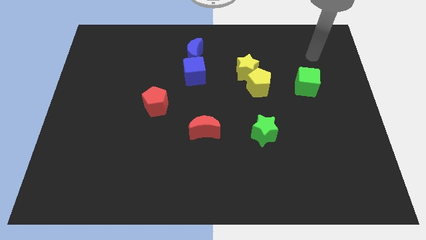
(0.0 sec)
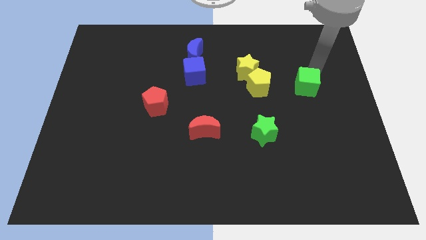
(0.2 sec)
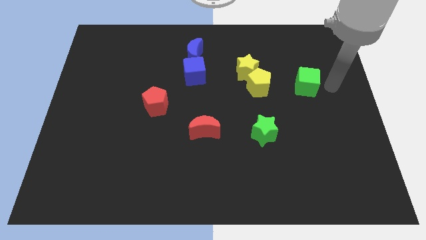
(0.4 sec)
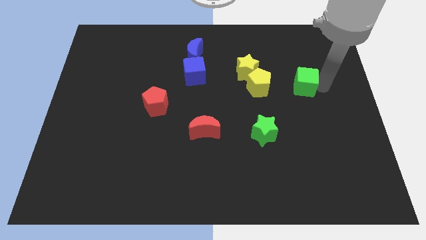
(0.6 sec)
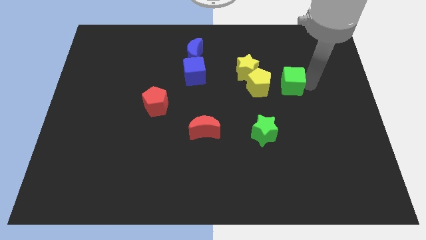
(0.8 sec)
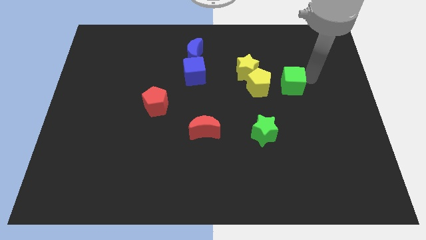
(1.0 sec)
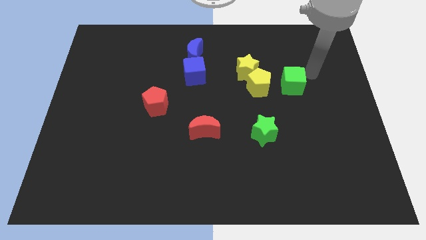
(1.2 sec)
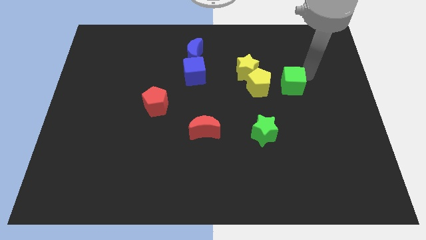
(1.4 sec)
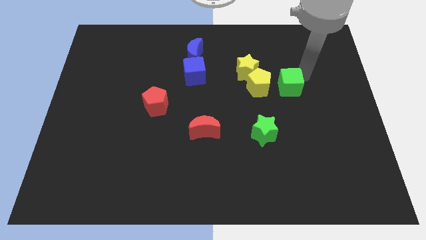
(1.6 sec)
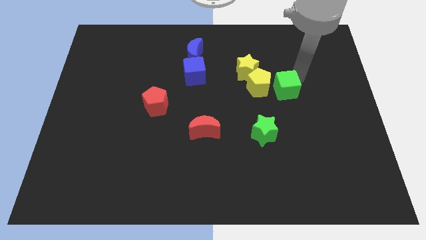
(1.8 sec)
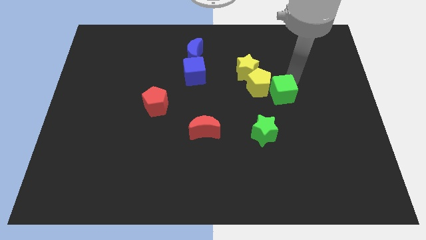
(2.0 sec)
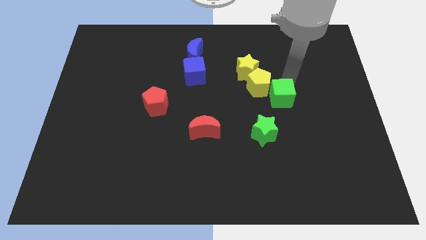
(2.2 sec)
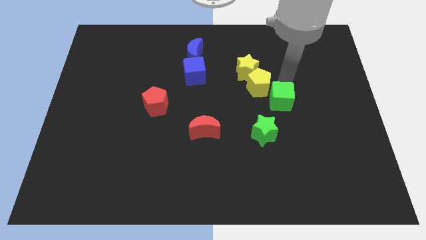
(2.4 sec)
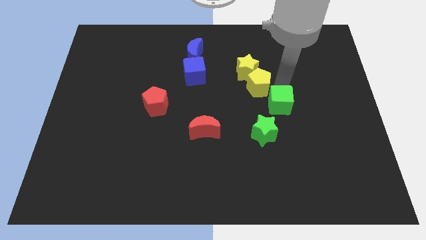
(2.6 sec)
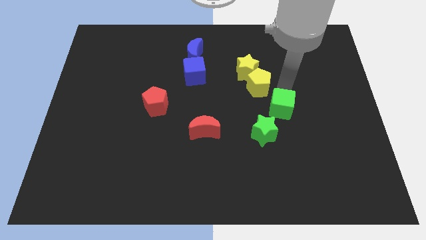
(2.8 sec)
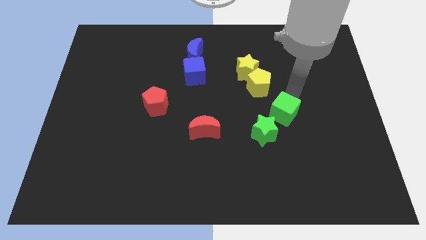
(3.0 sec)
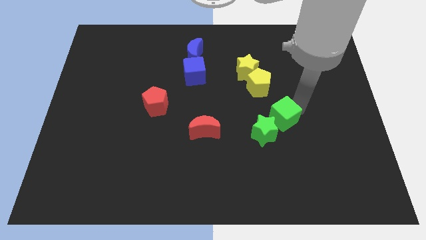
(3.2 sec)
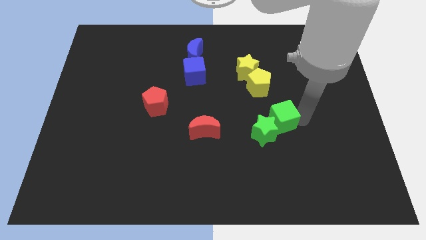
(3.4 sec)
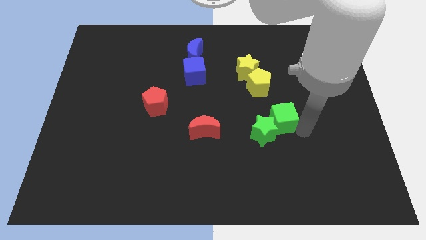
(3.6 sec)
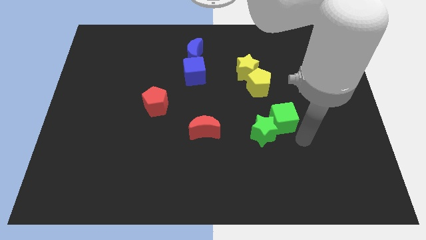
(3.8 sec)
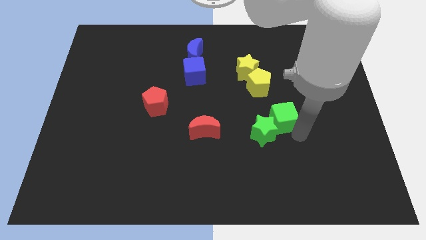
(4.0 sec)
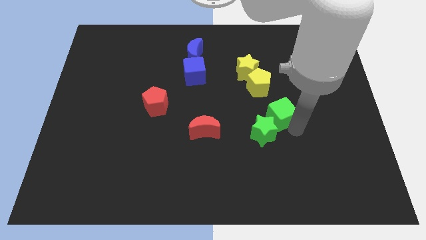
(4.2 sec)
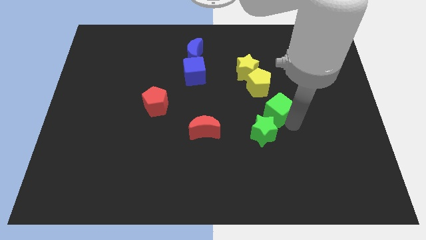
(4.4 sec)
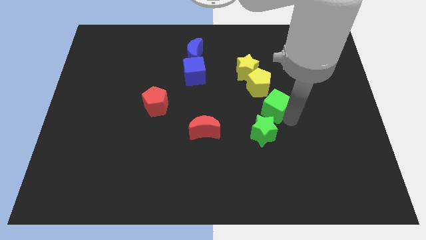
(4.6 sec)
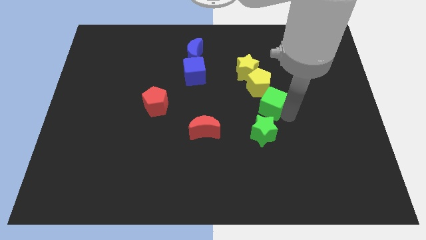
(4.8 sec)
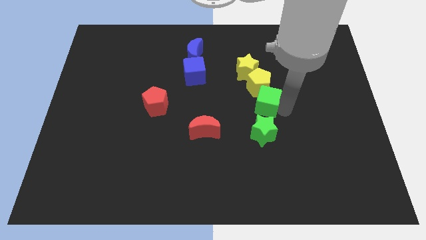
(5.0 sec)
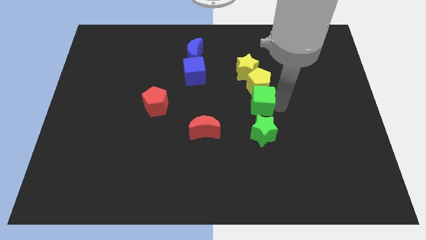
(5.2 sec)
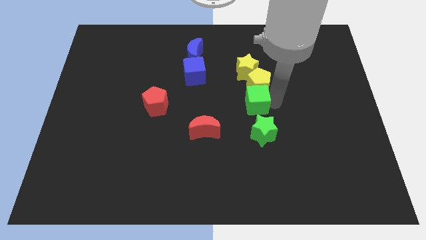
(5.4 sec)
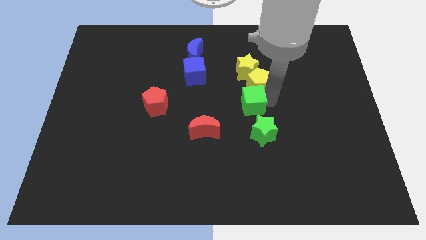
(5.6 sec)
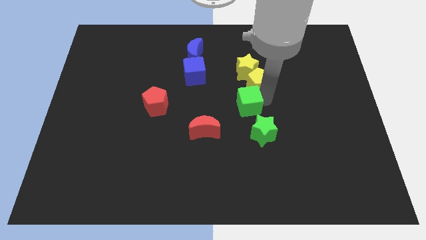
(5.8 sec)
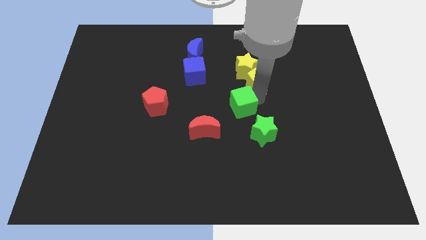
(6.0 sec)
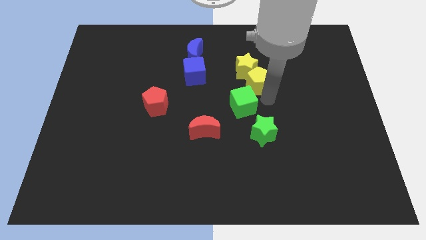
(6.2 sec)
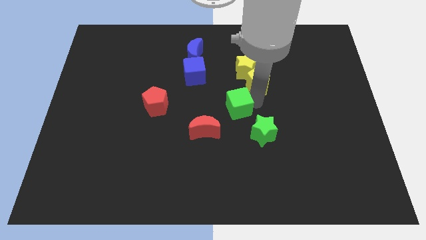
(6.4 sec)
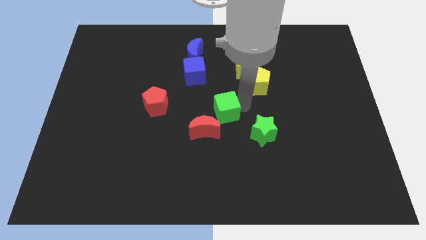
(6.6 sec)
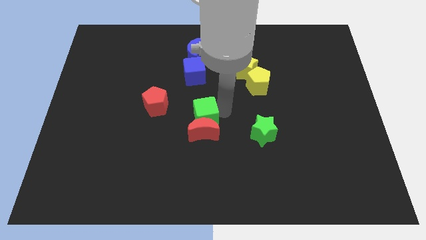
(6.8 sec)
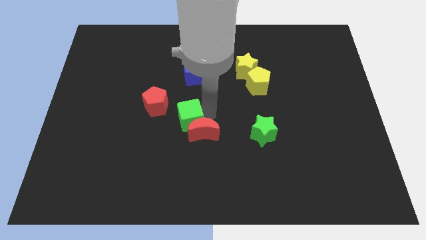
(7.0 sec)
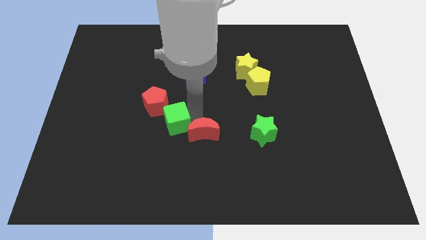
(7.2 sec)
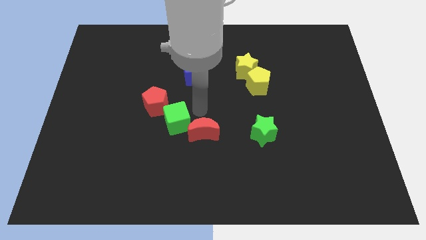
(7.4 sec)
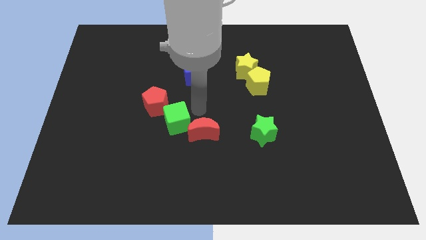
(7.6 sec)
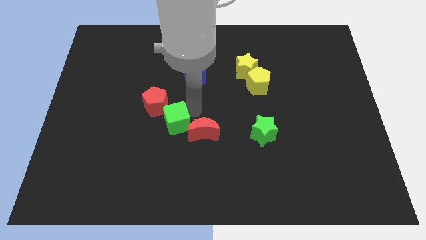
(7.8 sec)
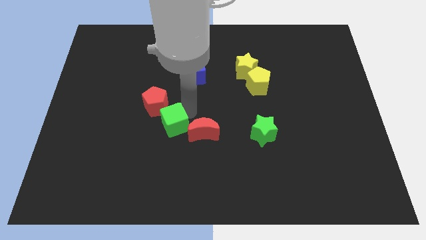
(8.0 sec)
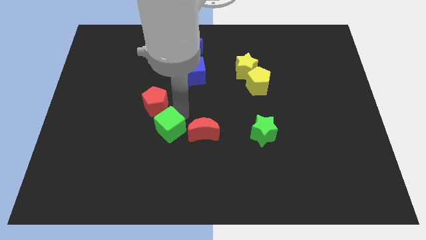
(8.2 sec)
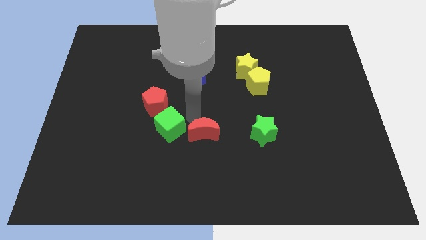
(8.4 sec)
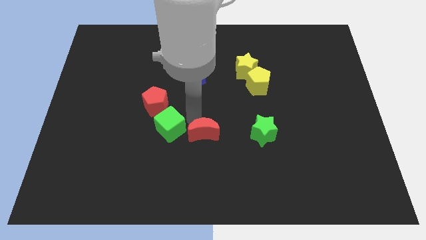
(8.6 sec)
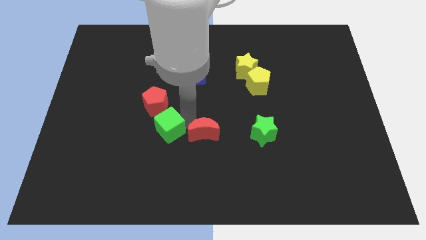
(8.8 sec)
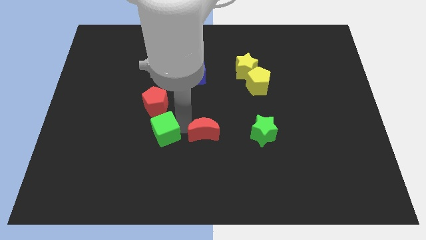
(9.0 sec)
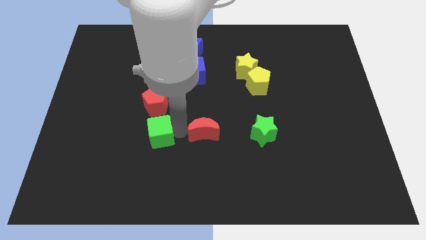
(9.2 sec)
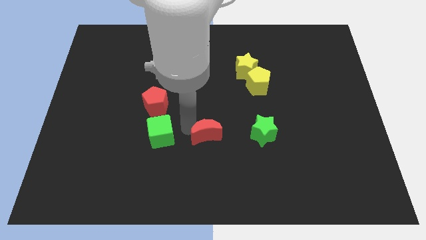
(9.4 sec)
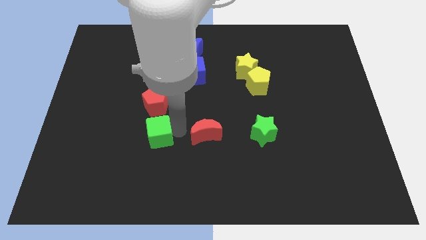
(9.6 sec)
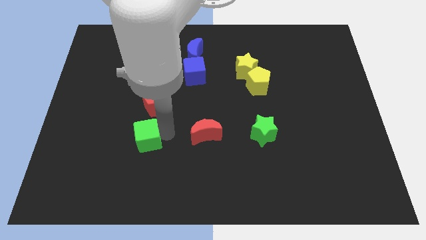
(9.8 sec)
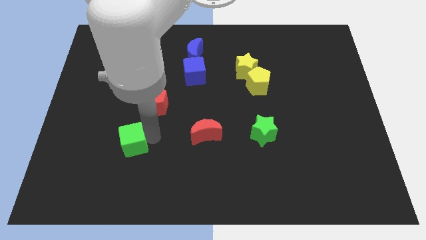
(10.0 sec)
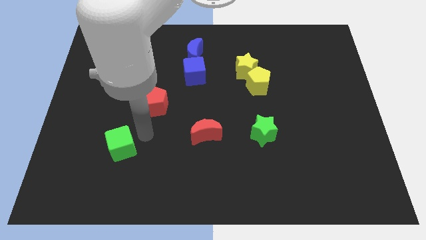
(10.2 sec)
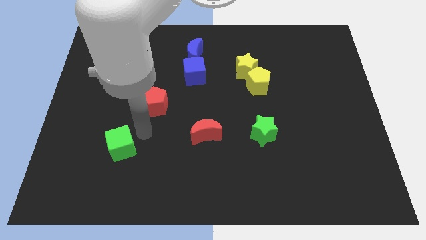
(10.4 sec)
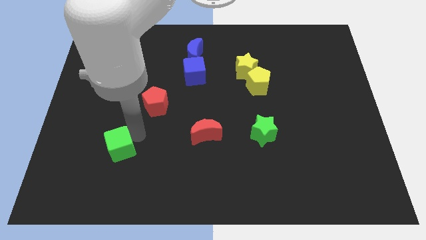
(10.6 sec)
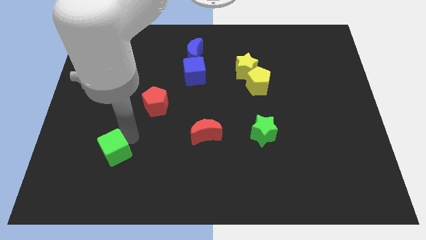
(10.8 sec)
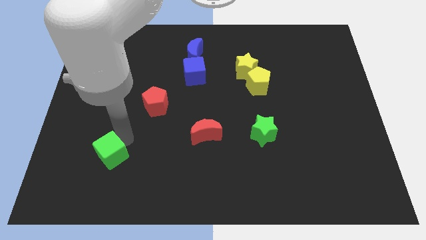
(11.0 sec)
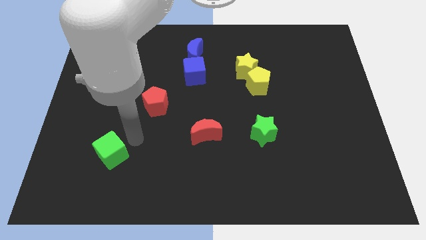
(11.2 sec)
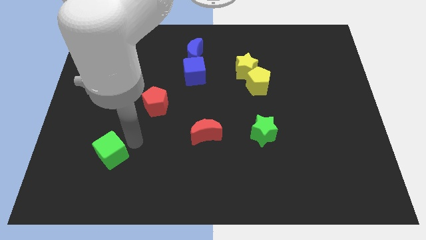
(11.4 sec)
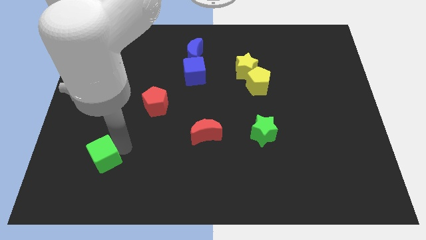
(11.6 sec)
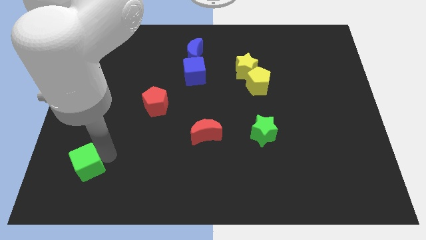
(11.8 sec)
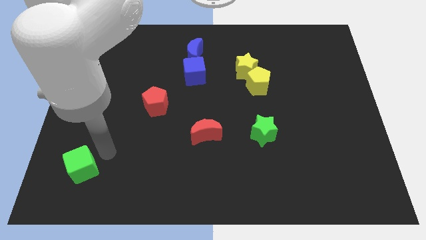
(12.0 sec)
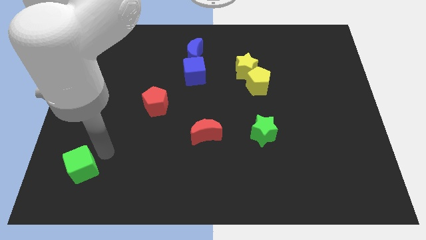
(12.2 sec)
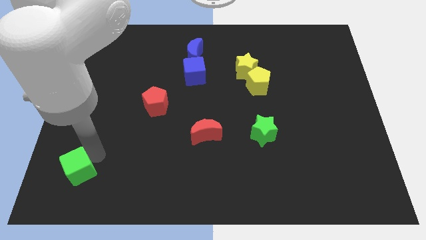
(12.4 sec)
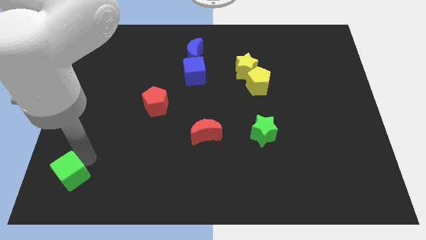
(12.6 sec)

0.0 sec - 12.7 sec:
slide the green cube to the lower left corner
